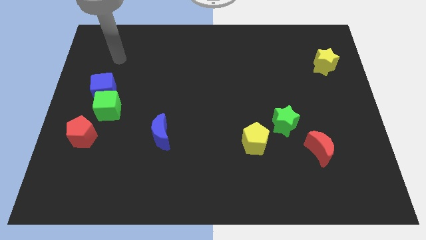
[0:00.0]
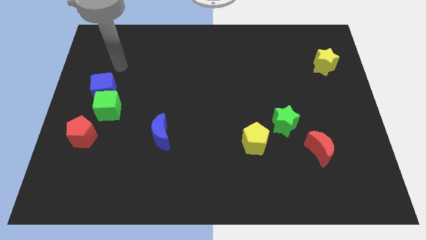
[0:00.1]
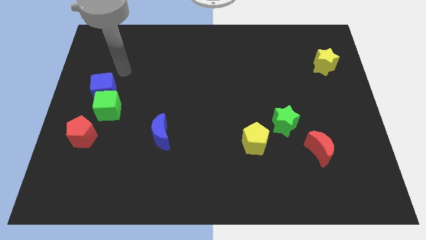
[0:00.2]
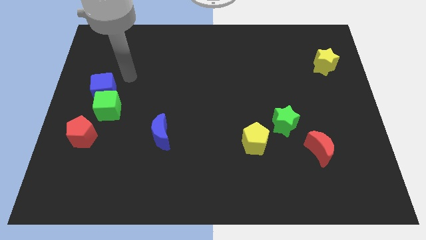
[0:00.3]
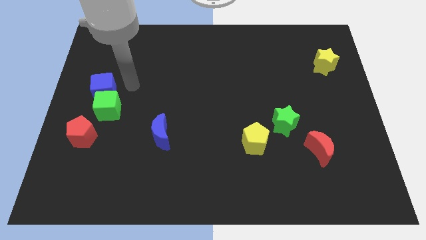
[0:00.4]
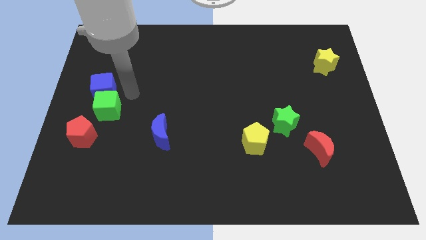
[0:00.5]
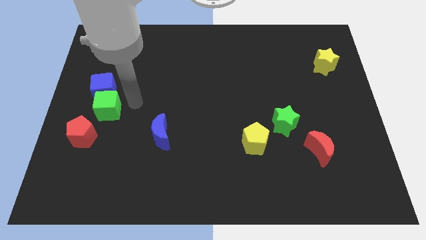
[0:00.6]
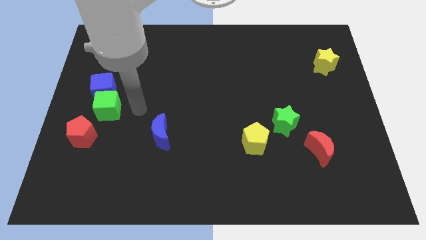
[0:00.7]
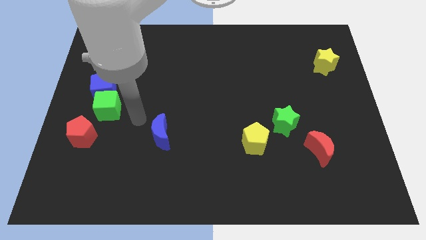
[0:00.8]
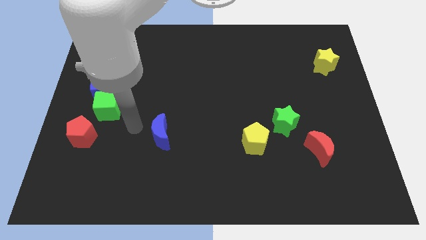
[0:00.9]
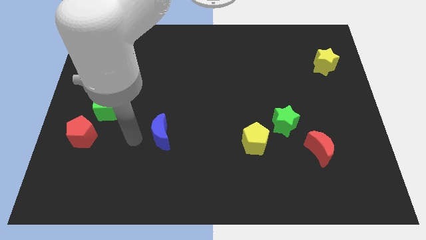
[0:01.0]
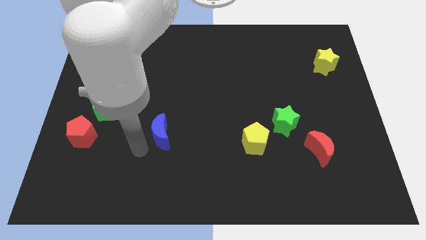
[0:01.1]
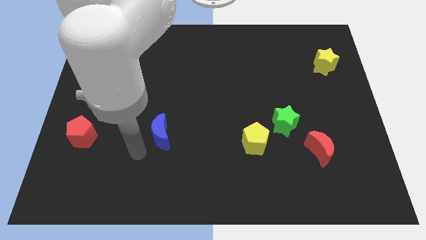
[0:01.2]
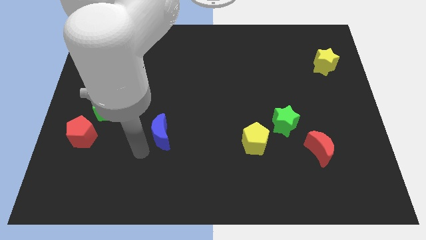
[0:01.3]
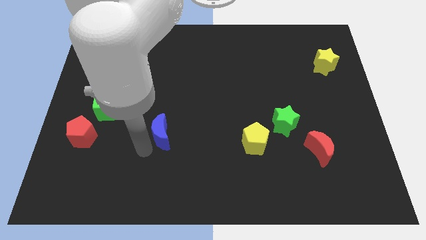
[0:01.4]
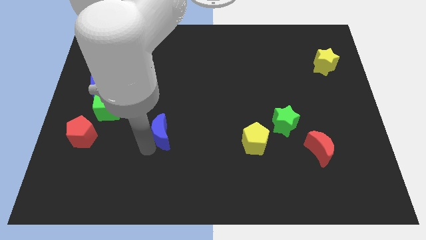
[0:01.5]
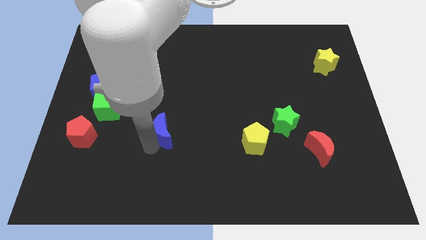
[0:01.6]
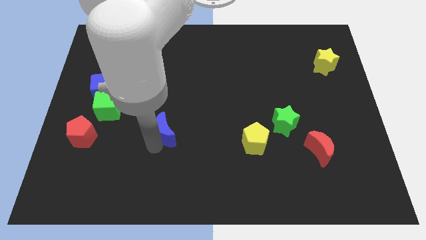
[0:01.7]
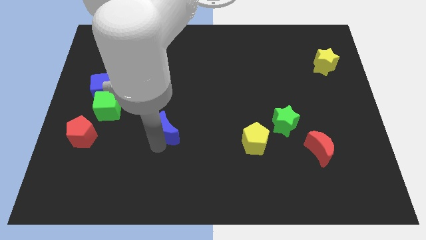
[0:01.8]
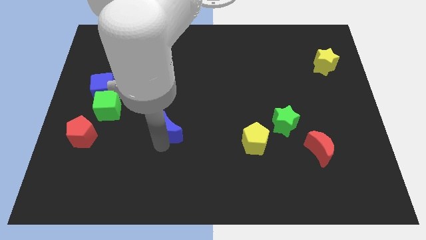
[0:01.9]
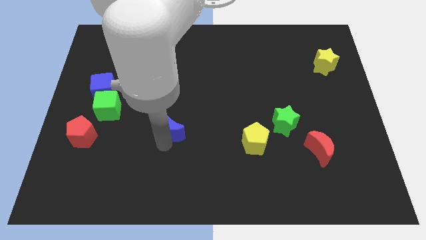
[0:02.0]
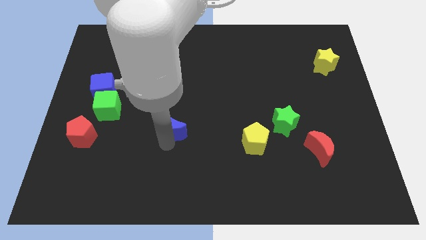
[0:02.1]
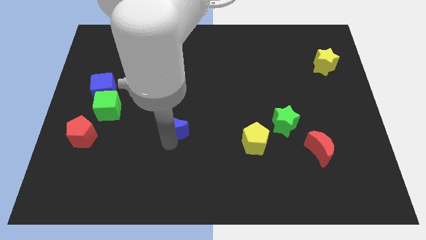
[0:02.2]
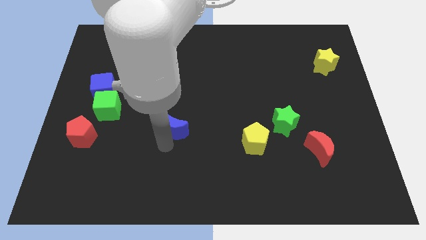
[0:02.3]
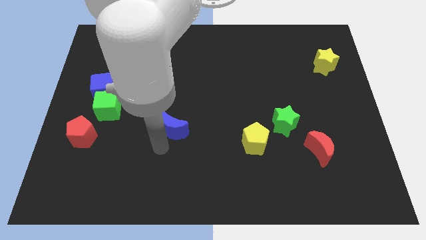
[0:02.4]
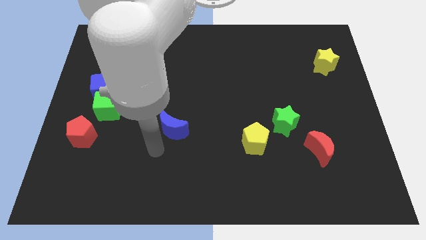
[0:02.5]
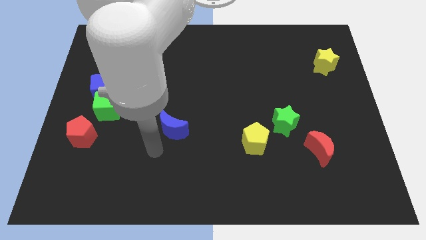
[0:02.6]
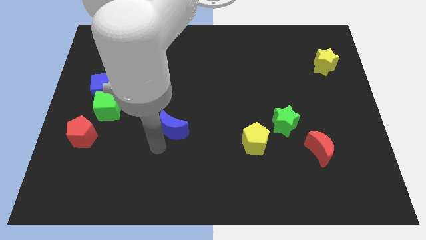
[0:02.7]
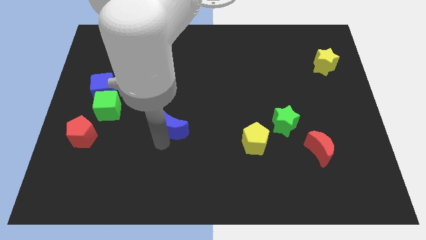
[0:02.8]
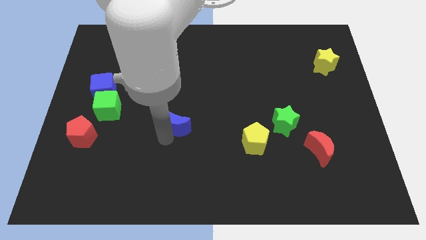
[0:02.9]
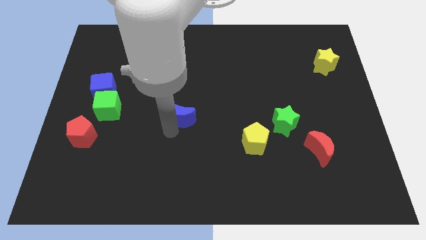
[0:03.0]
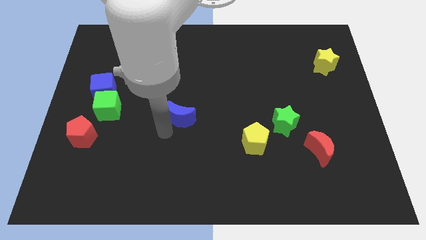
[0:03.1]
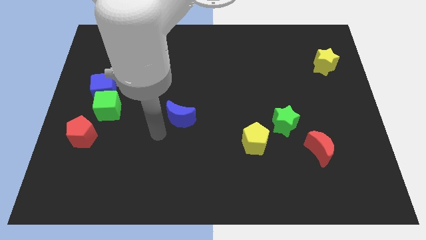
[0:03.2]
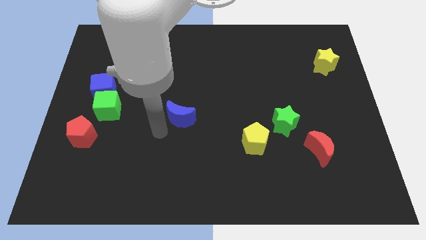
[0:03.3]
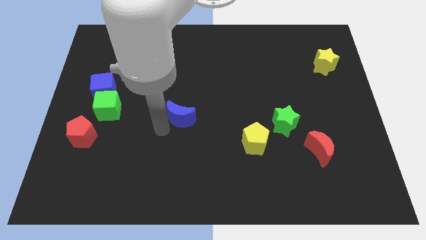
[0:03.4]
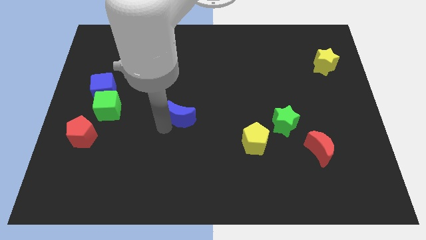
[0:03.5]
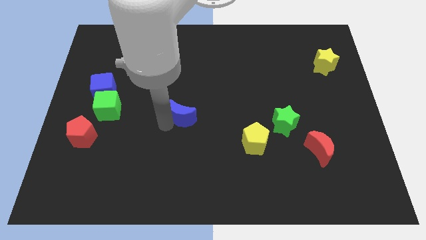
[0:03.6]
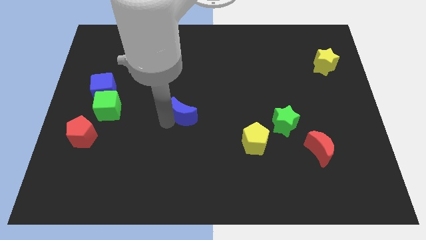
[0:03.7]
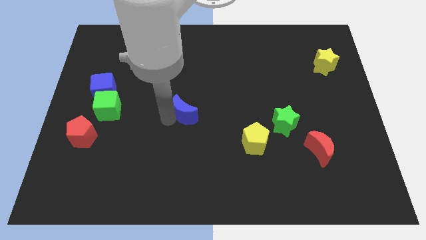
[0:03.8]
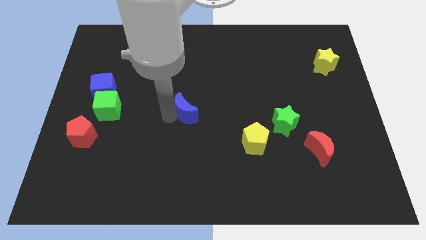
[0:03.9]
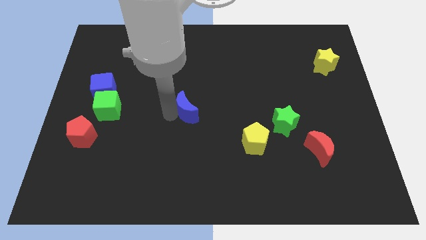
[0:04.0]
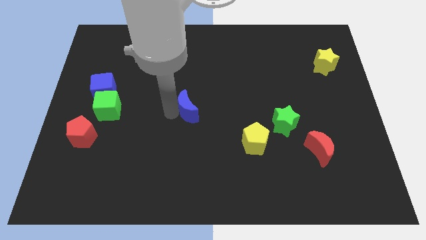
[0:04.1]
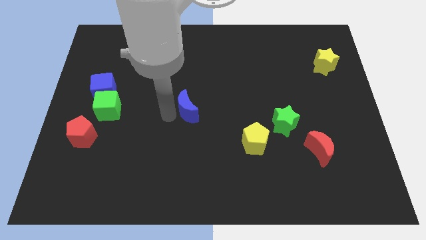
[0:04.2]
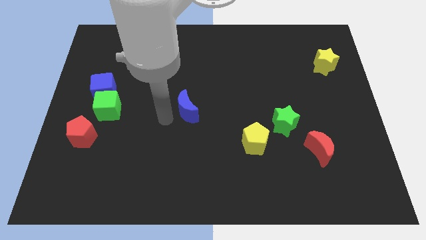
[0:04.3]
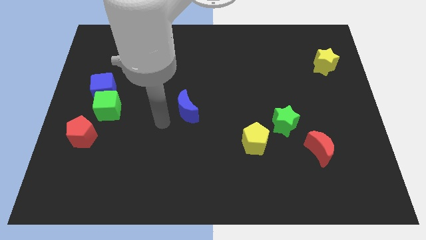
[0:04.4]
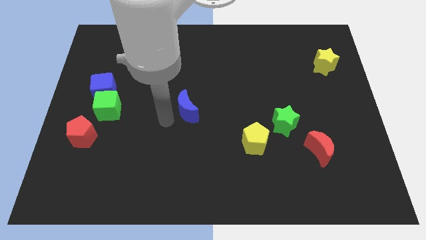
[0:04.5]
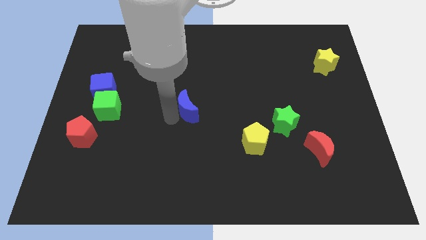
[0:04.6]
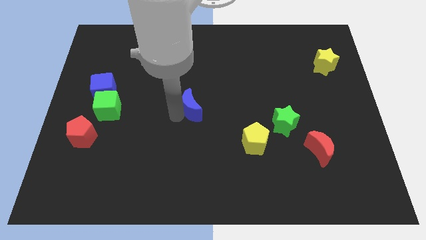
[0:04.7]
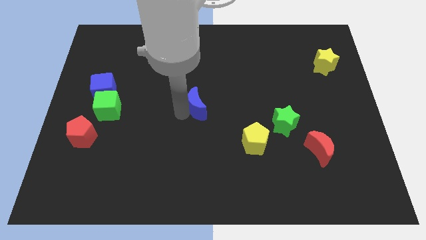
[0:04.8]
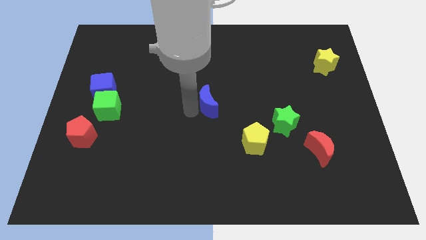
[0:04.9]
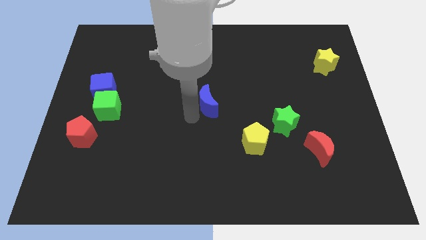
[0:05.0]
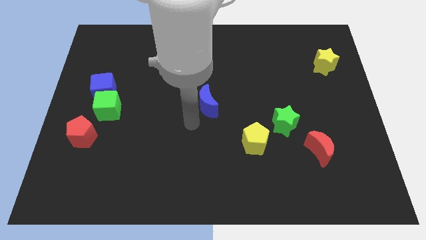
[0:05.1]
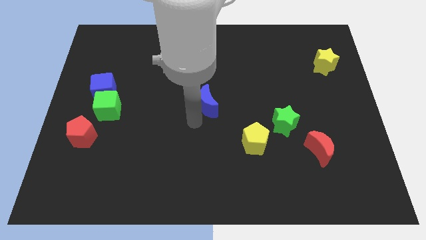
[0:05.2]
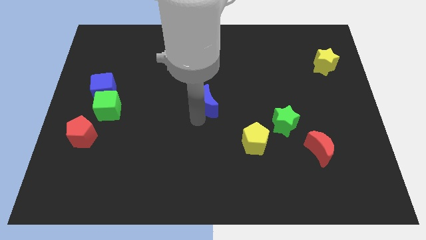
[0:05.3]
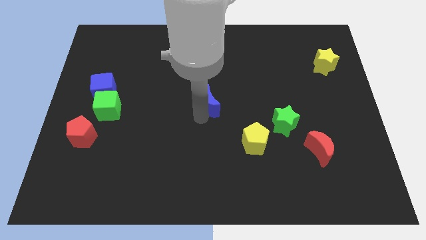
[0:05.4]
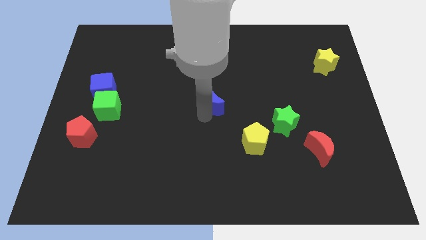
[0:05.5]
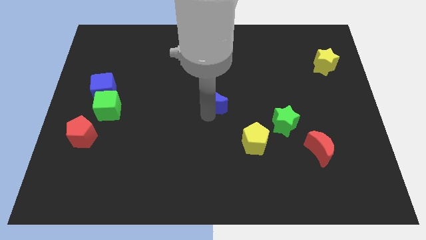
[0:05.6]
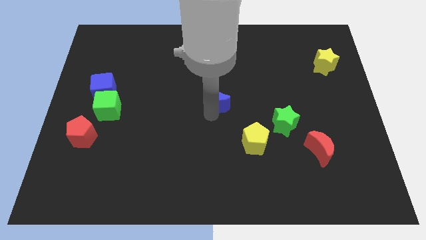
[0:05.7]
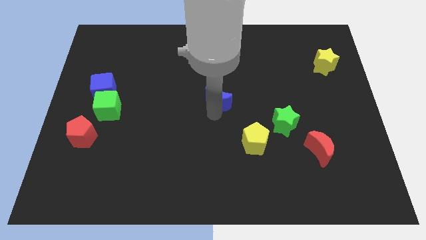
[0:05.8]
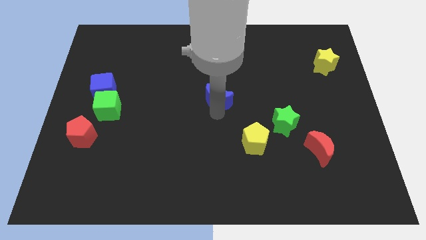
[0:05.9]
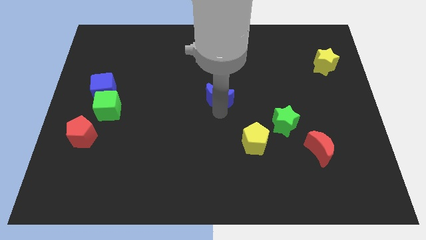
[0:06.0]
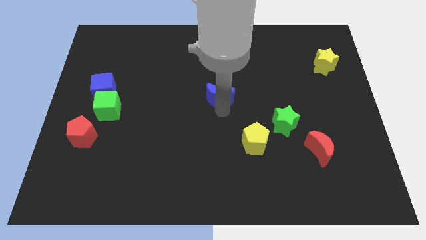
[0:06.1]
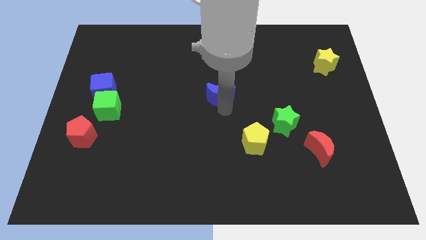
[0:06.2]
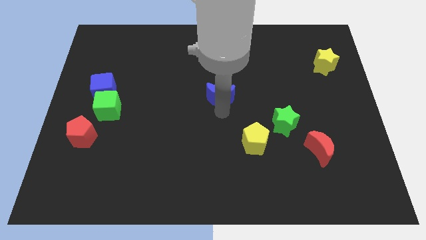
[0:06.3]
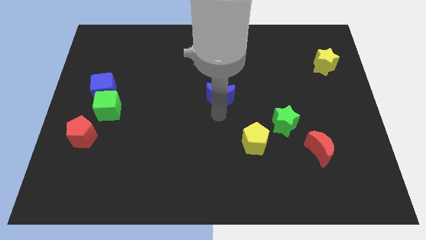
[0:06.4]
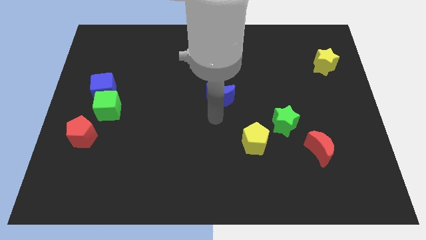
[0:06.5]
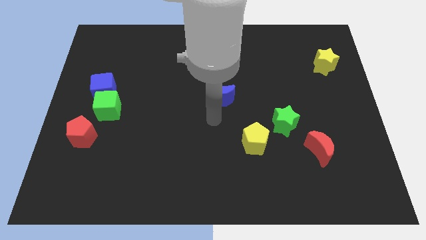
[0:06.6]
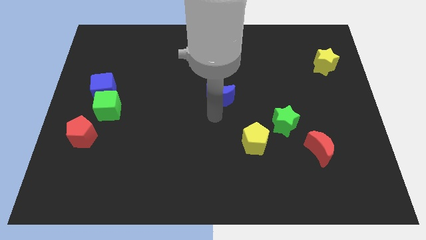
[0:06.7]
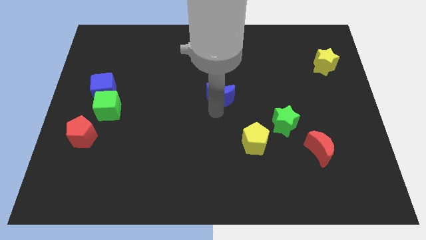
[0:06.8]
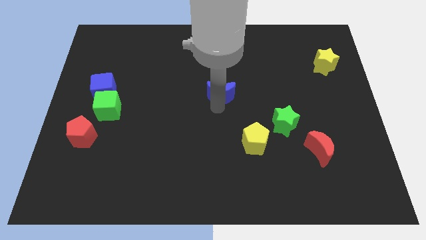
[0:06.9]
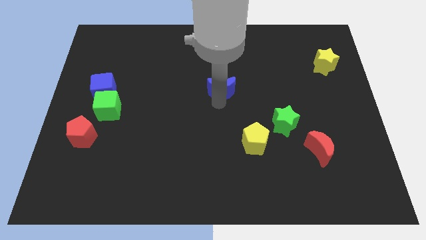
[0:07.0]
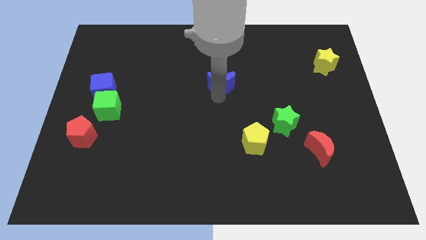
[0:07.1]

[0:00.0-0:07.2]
slide the blue moon diagonally up and to the right

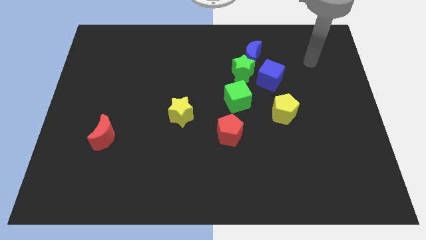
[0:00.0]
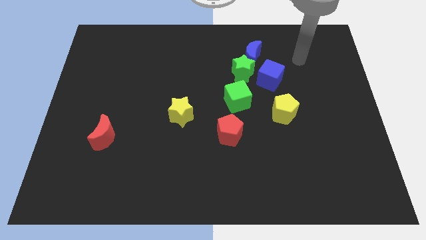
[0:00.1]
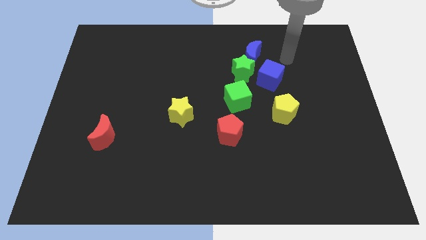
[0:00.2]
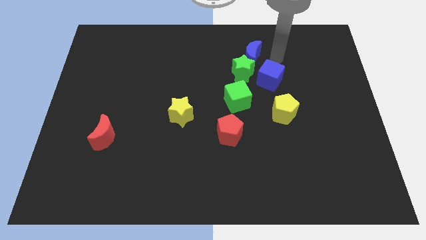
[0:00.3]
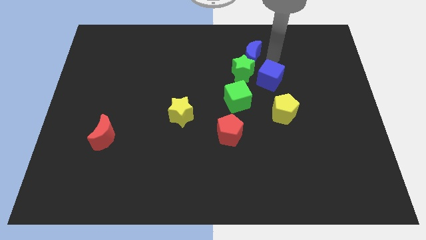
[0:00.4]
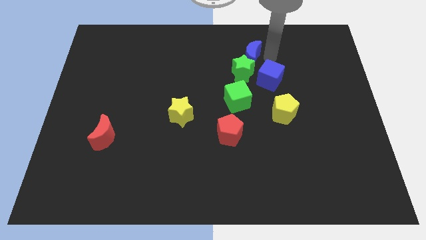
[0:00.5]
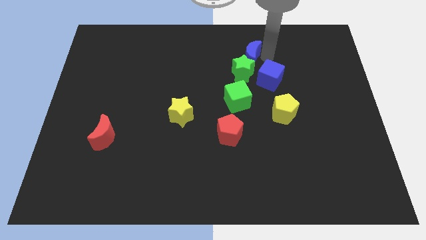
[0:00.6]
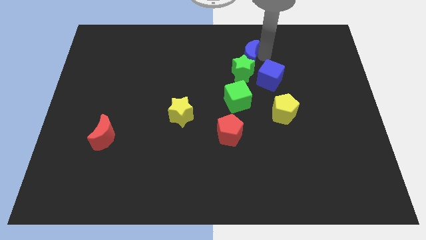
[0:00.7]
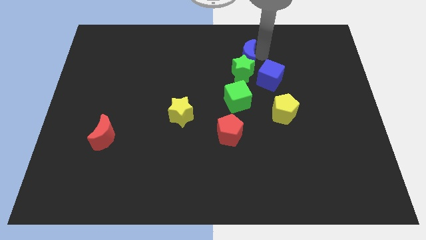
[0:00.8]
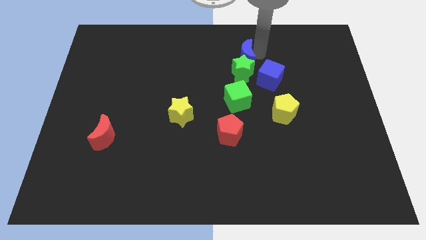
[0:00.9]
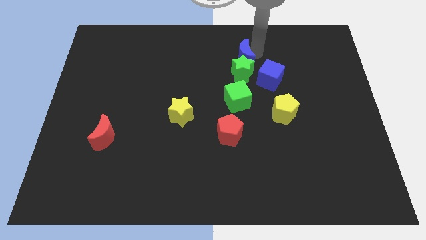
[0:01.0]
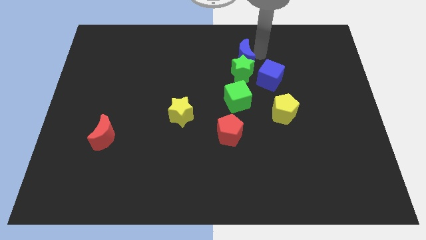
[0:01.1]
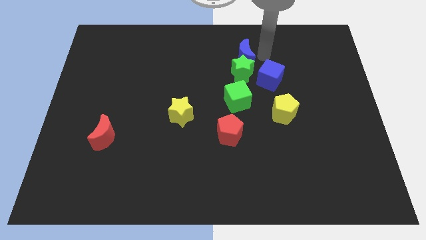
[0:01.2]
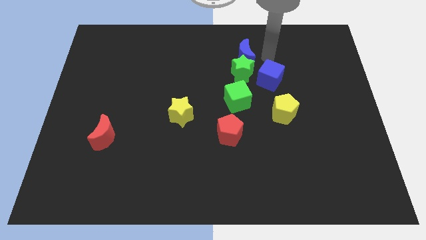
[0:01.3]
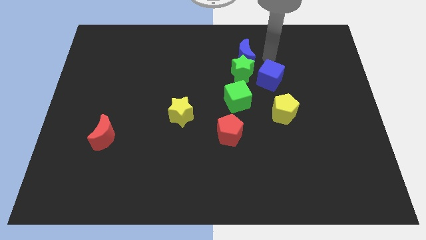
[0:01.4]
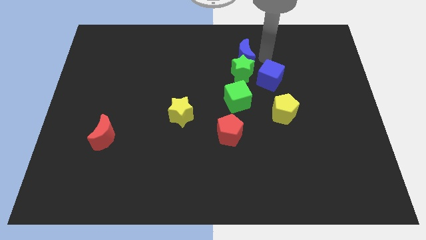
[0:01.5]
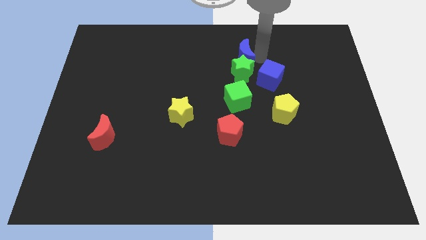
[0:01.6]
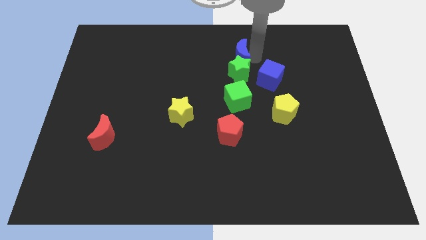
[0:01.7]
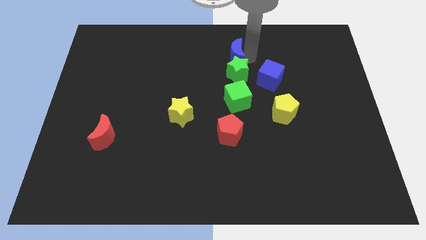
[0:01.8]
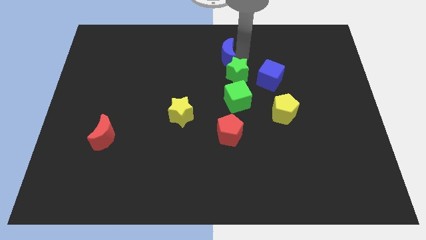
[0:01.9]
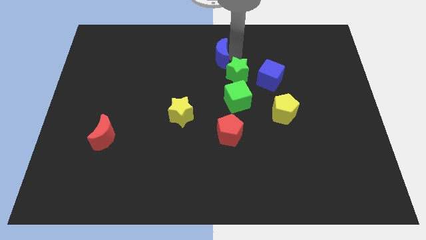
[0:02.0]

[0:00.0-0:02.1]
slightly slide the blue moon left
